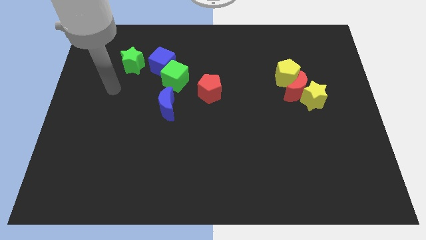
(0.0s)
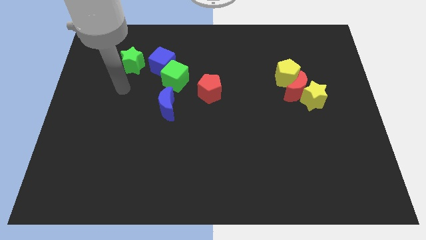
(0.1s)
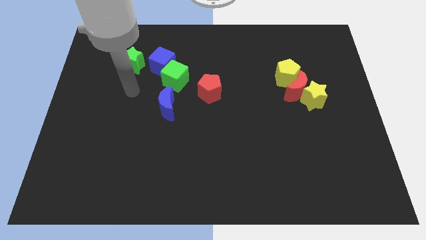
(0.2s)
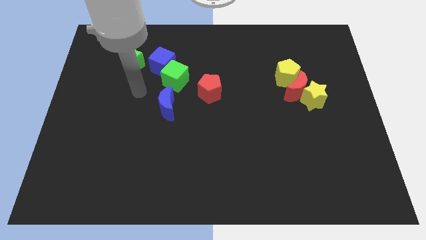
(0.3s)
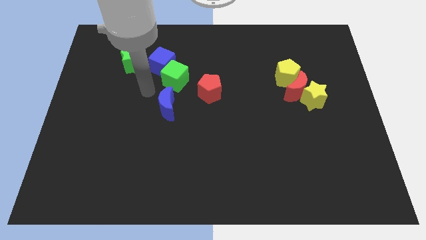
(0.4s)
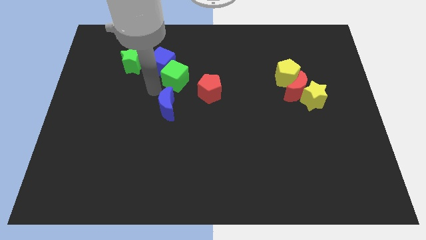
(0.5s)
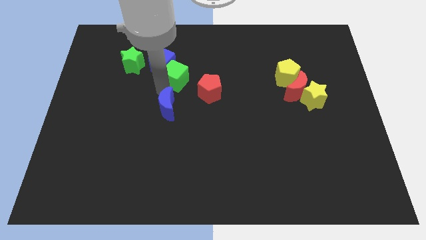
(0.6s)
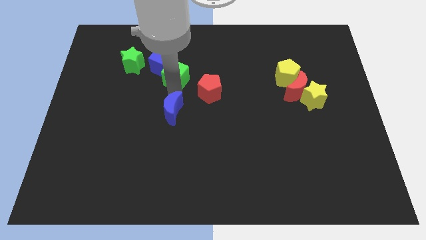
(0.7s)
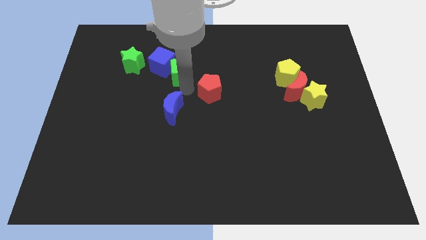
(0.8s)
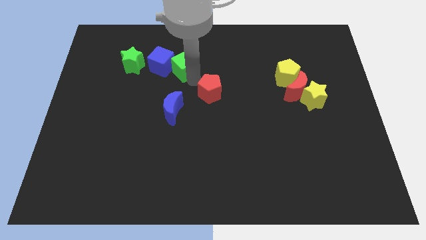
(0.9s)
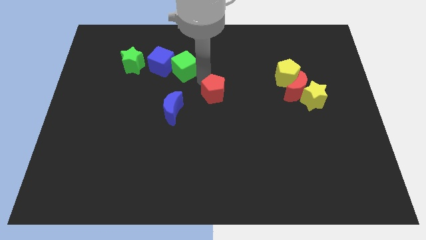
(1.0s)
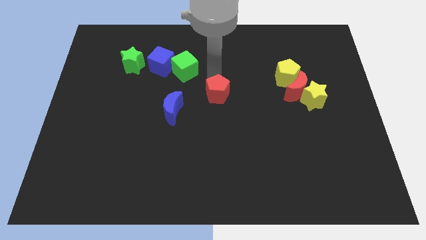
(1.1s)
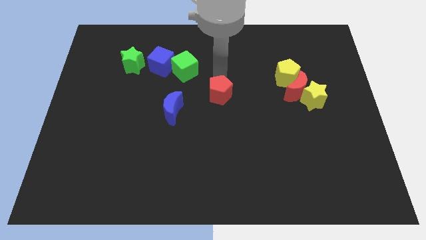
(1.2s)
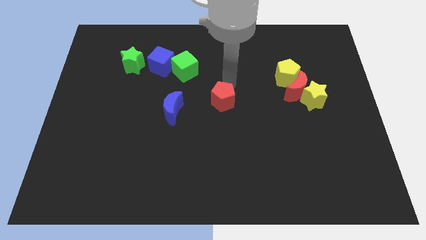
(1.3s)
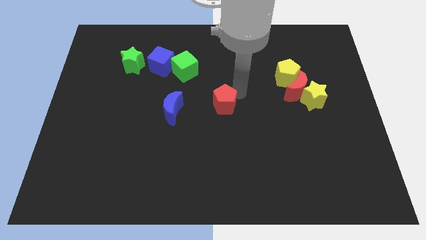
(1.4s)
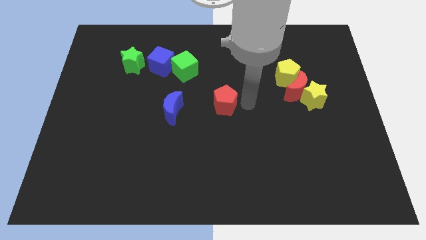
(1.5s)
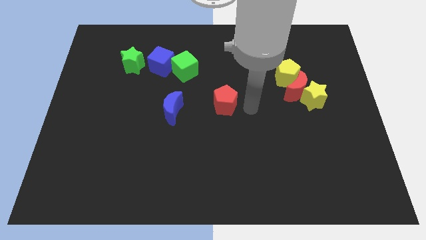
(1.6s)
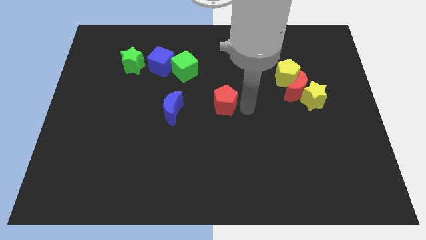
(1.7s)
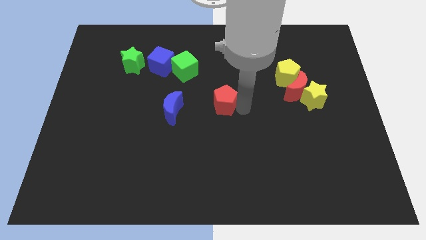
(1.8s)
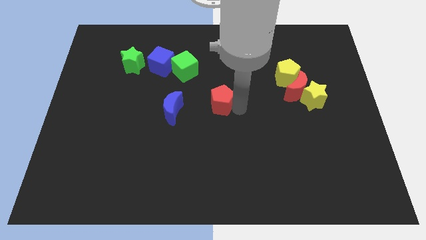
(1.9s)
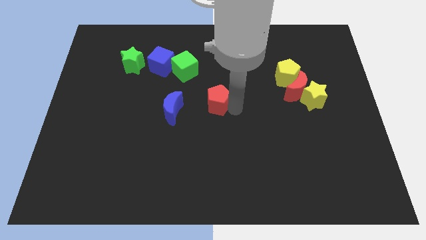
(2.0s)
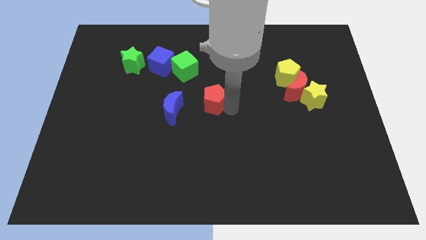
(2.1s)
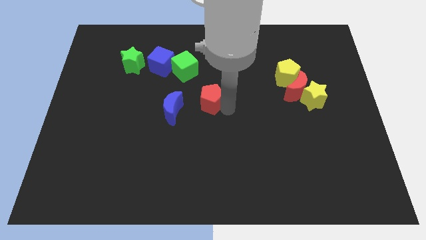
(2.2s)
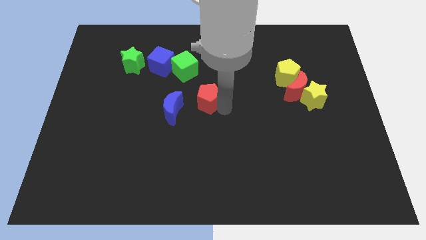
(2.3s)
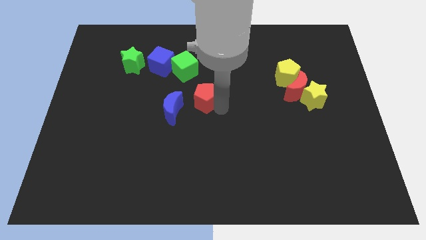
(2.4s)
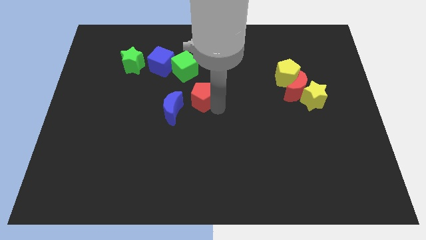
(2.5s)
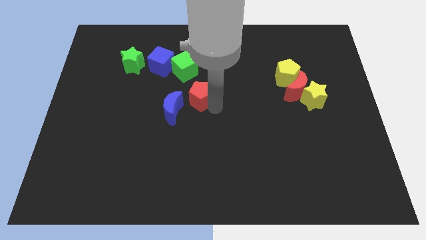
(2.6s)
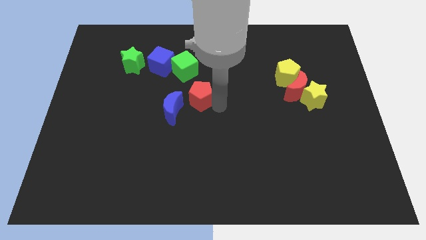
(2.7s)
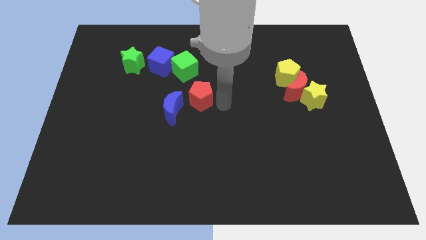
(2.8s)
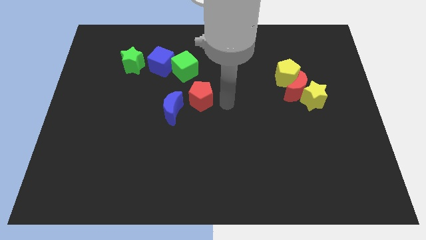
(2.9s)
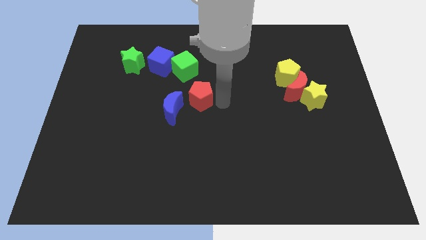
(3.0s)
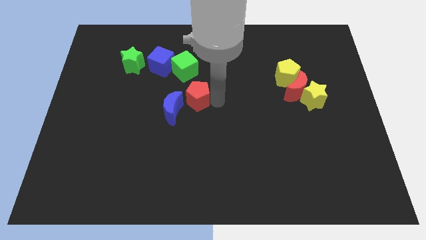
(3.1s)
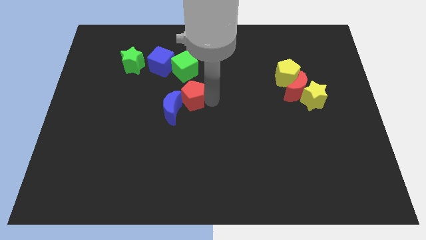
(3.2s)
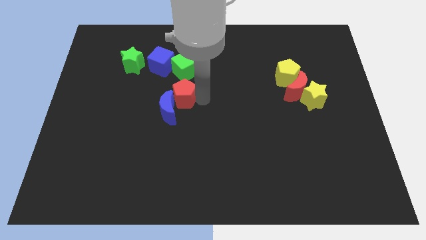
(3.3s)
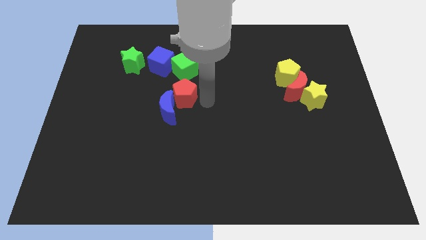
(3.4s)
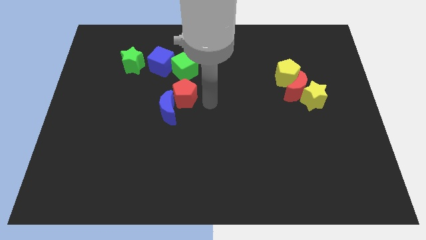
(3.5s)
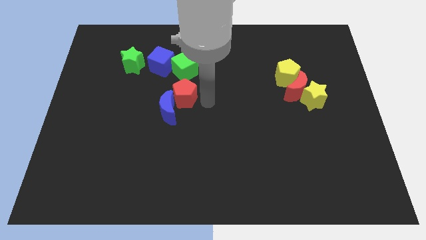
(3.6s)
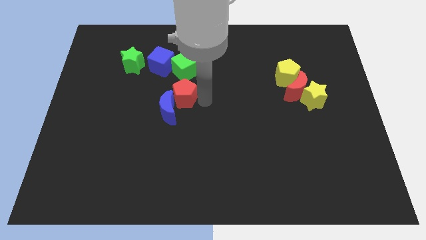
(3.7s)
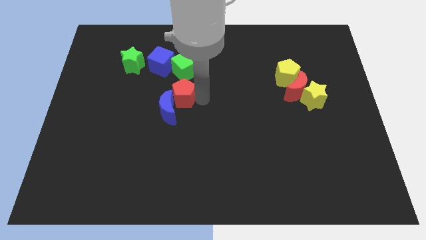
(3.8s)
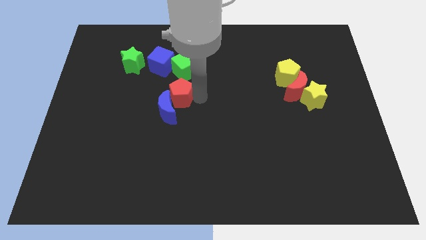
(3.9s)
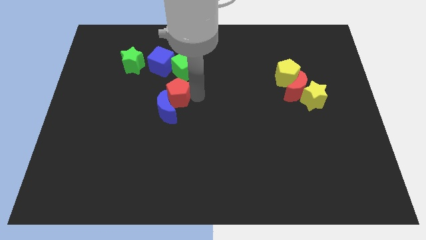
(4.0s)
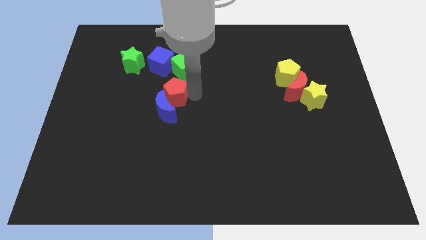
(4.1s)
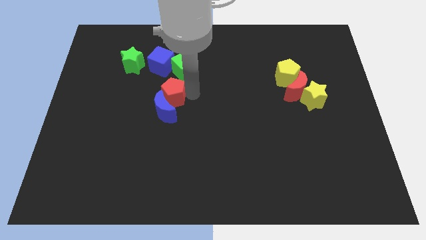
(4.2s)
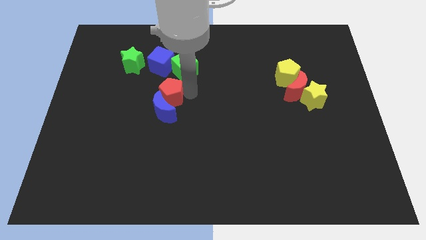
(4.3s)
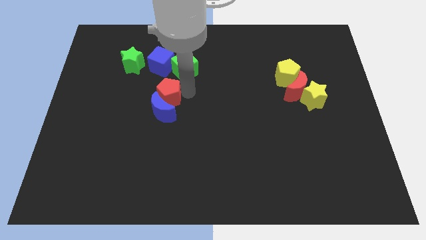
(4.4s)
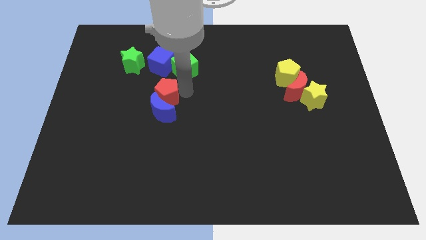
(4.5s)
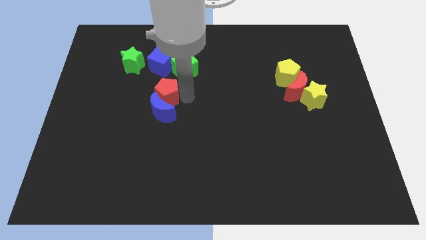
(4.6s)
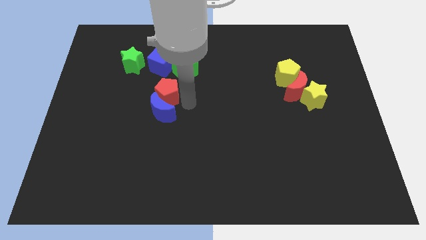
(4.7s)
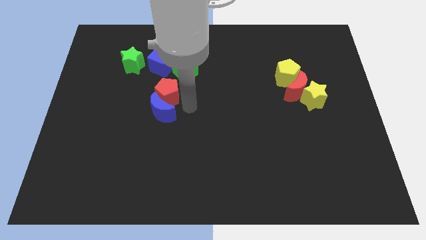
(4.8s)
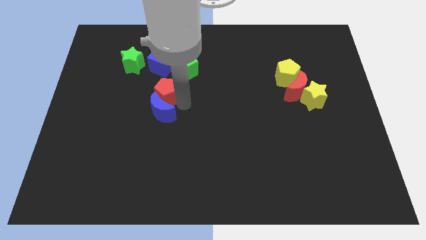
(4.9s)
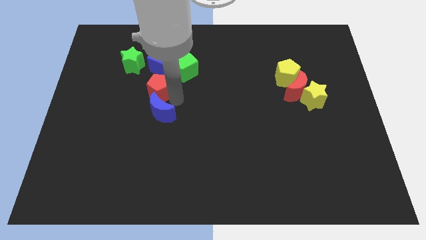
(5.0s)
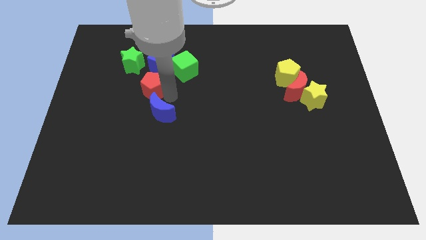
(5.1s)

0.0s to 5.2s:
slide the red pentagon to the bottom left of the blue cube

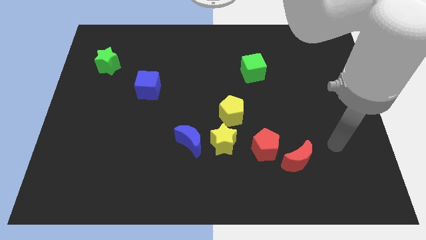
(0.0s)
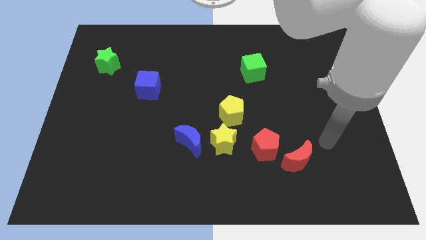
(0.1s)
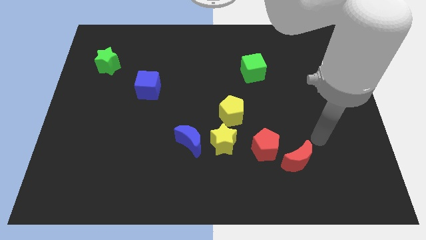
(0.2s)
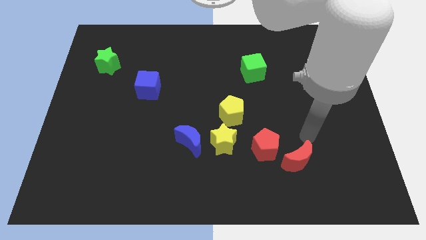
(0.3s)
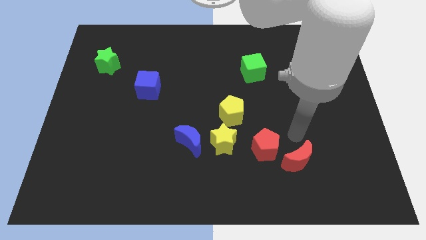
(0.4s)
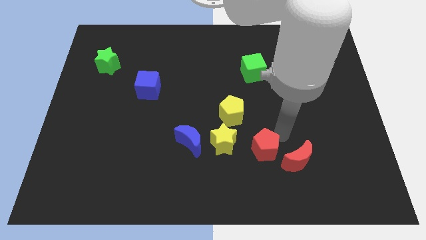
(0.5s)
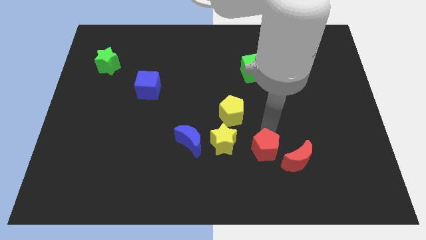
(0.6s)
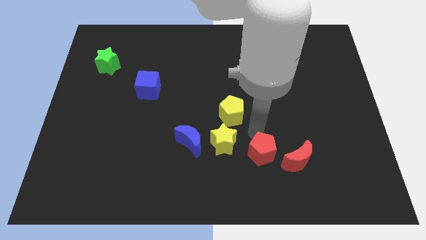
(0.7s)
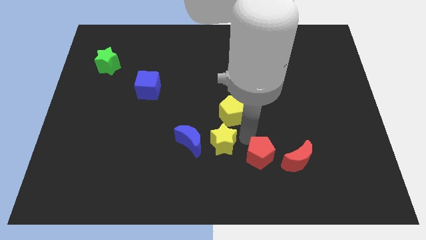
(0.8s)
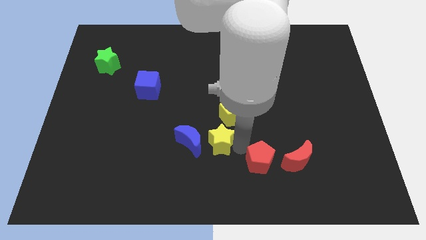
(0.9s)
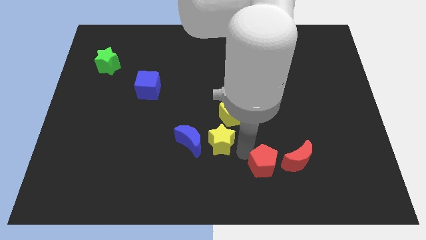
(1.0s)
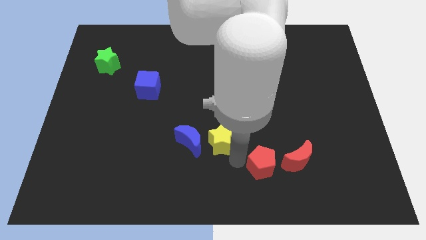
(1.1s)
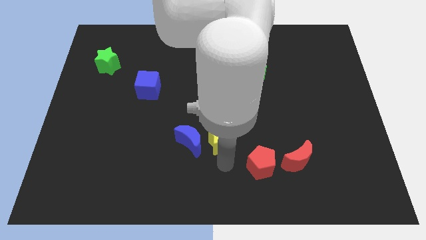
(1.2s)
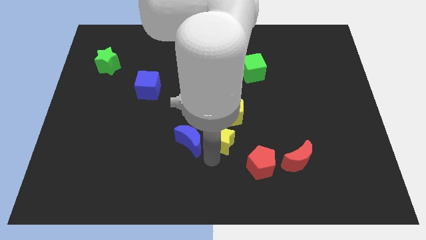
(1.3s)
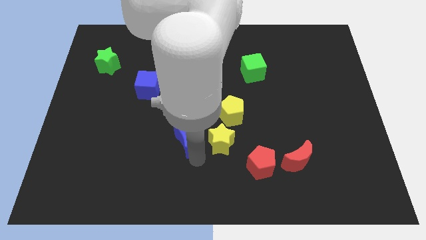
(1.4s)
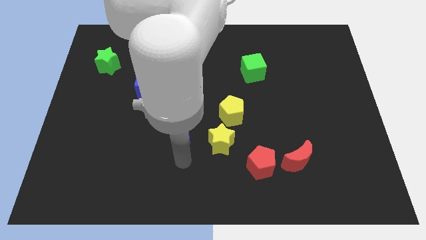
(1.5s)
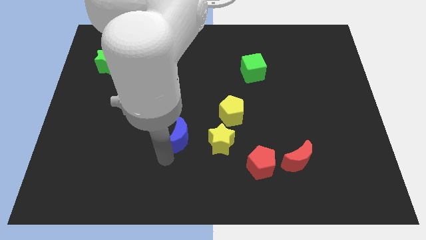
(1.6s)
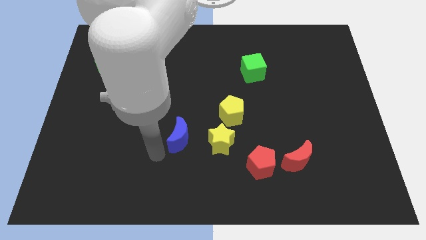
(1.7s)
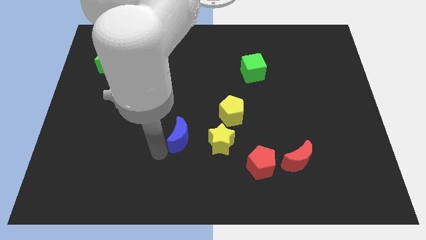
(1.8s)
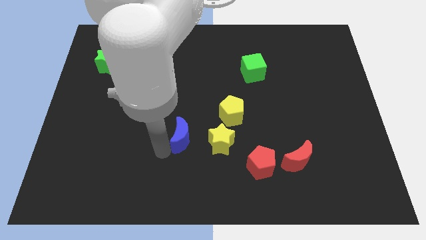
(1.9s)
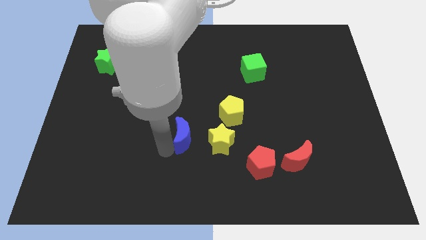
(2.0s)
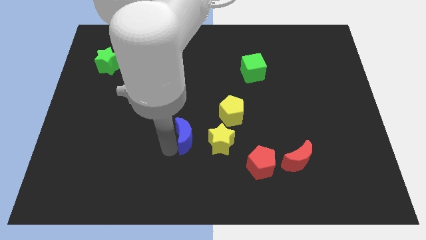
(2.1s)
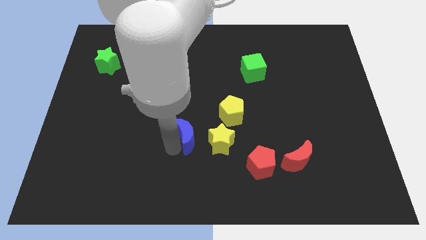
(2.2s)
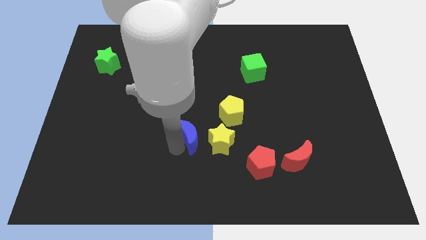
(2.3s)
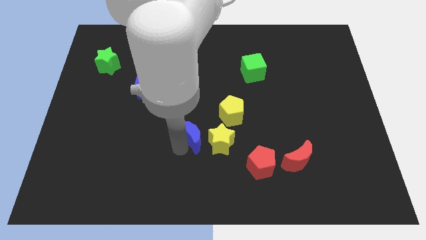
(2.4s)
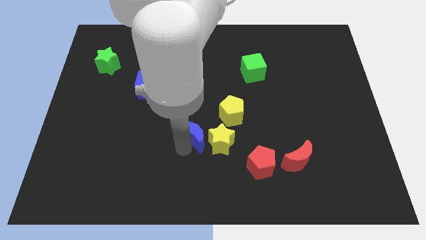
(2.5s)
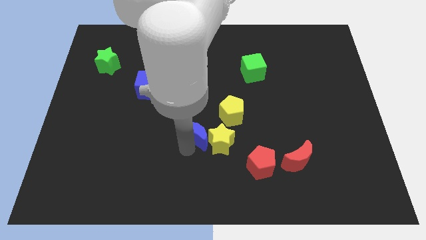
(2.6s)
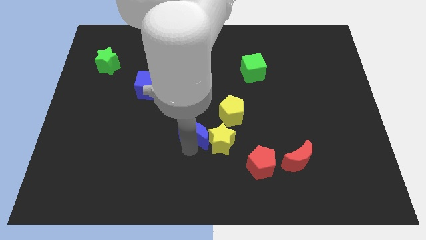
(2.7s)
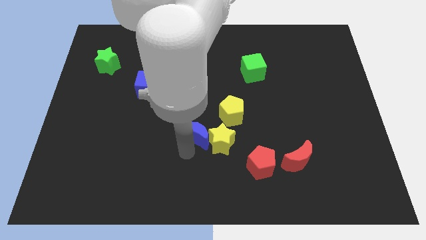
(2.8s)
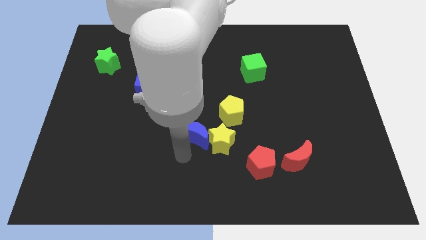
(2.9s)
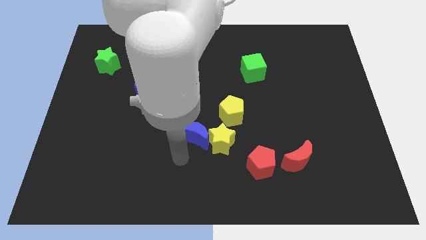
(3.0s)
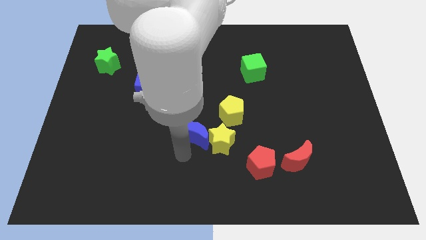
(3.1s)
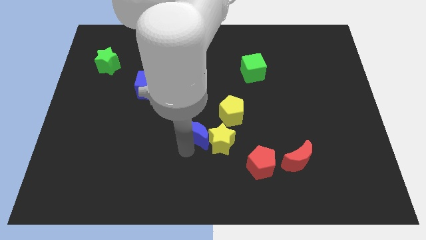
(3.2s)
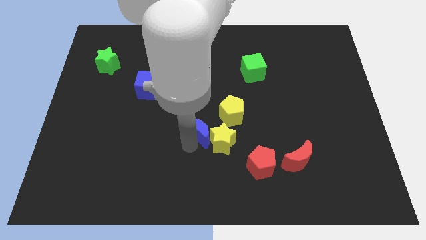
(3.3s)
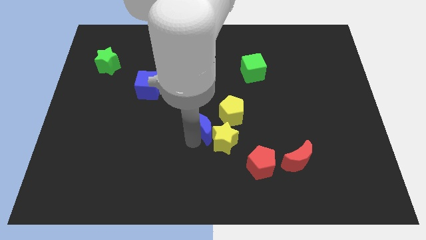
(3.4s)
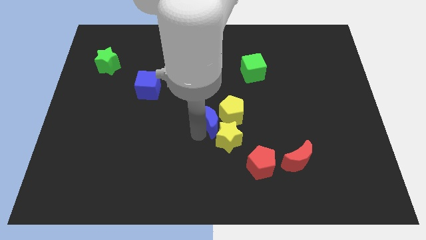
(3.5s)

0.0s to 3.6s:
move the blue moon to the top side of the yellow star
